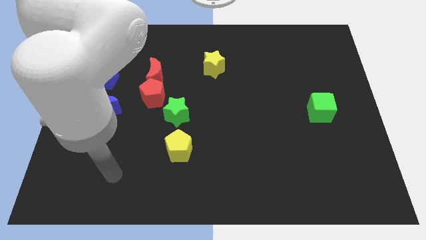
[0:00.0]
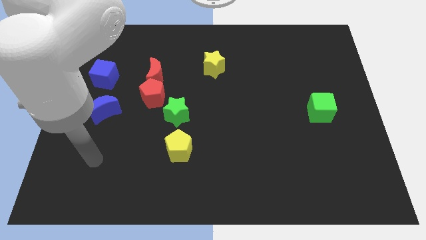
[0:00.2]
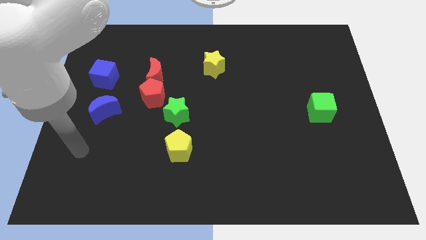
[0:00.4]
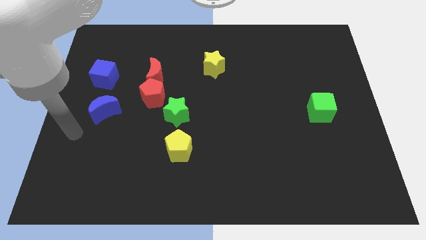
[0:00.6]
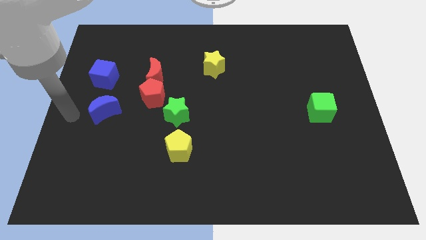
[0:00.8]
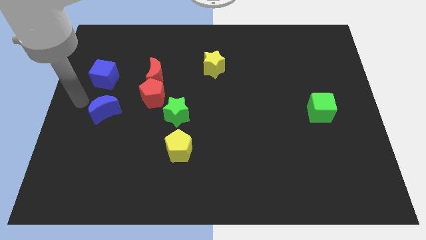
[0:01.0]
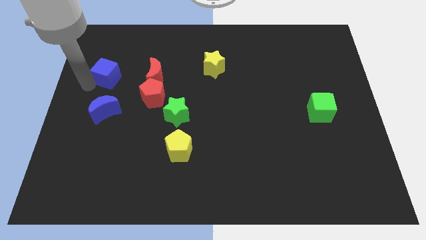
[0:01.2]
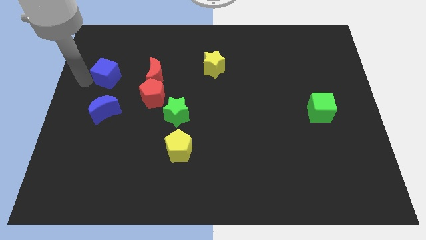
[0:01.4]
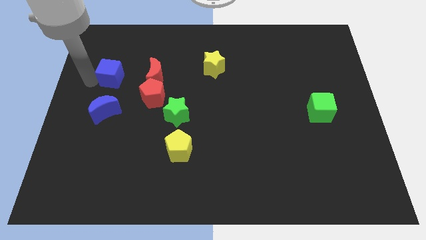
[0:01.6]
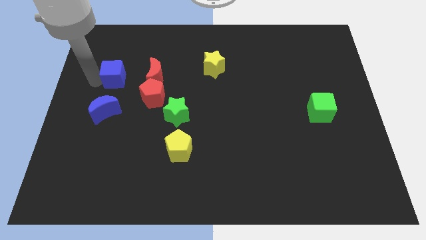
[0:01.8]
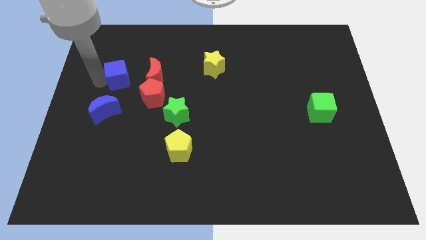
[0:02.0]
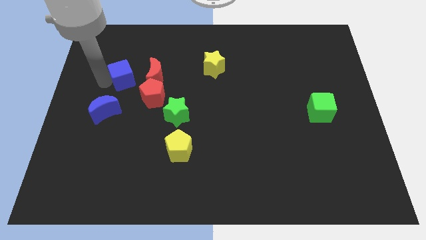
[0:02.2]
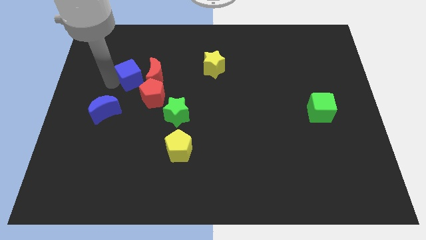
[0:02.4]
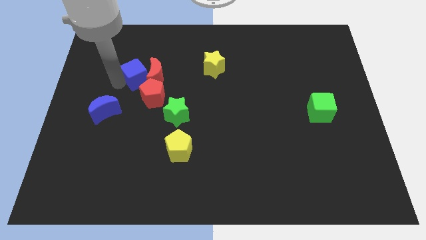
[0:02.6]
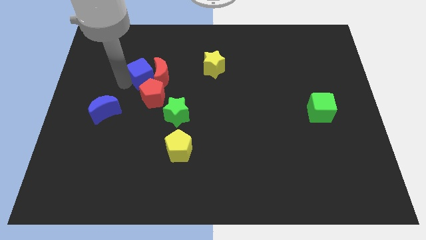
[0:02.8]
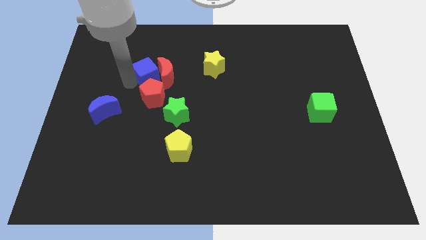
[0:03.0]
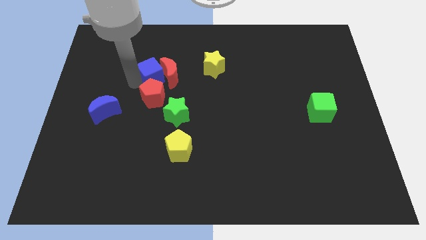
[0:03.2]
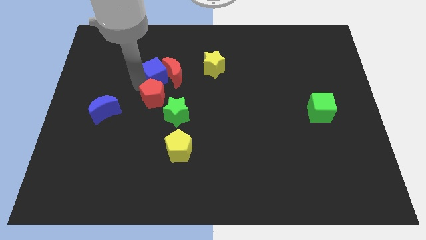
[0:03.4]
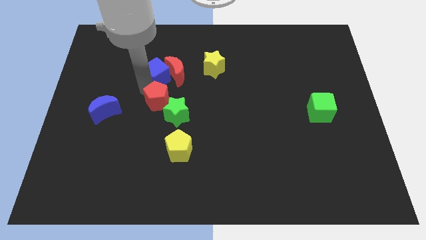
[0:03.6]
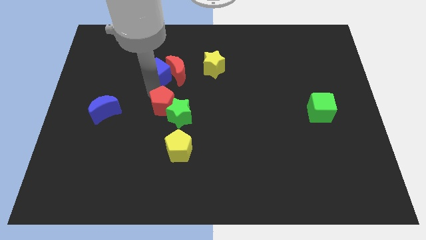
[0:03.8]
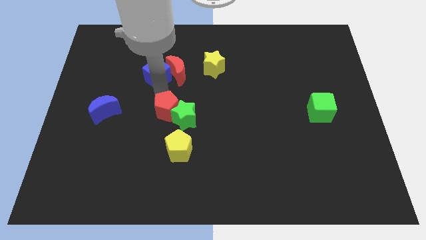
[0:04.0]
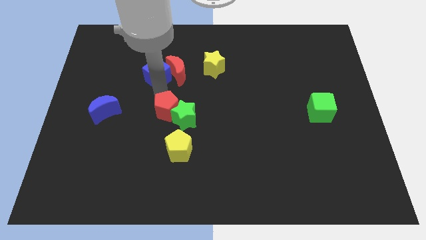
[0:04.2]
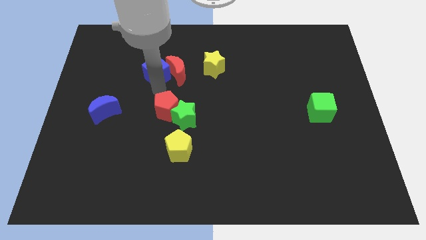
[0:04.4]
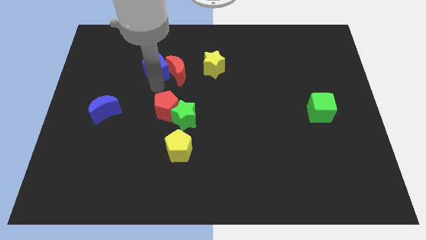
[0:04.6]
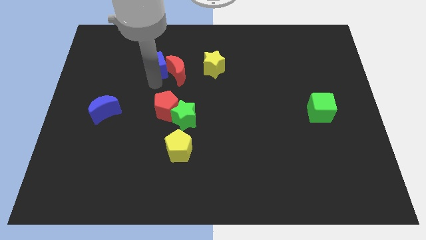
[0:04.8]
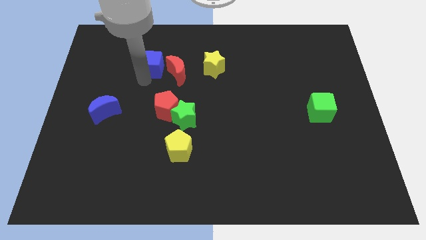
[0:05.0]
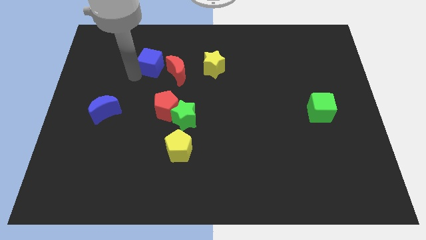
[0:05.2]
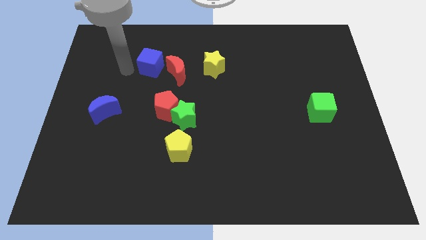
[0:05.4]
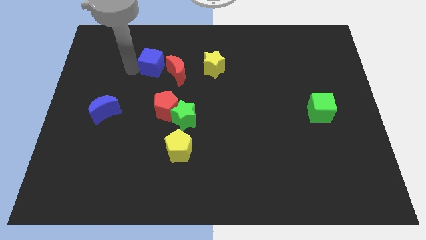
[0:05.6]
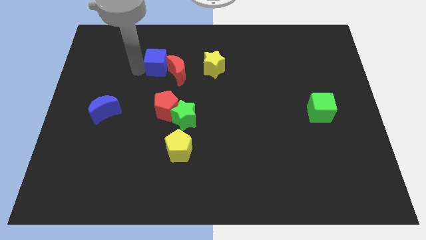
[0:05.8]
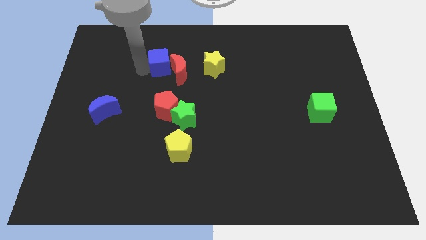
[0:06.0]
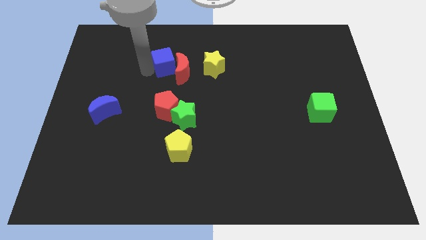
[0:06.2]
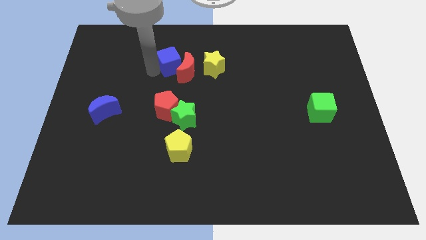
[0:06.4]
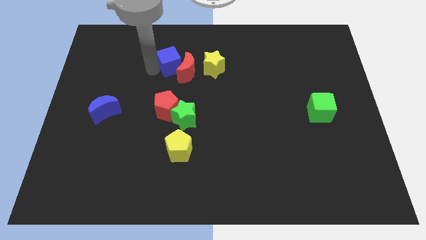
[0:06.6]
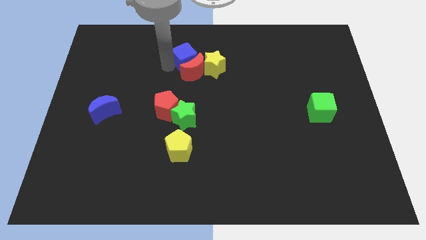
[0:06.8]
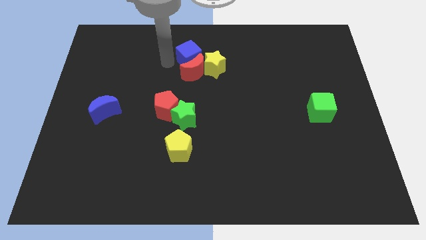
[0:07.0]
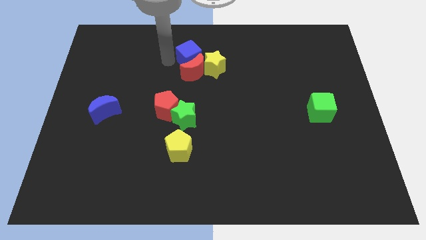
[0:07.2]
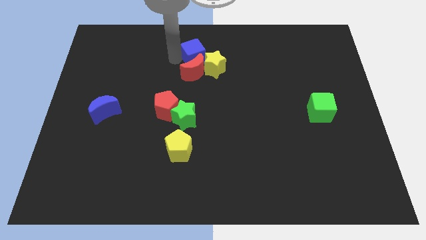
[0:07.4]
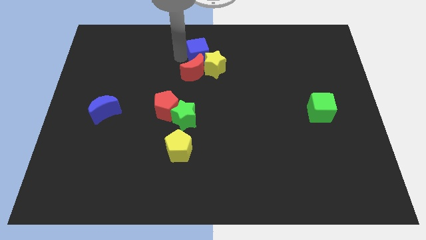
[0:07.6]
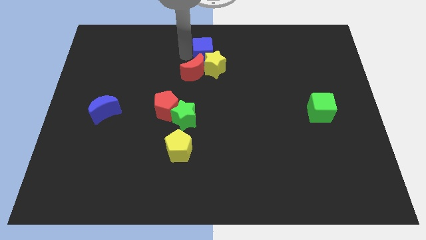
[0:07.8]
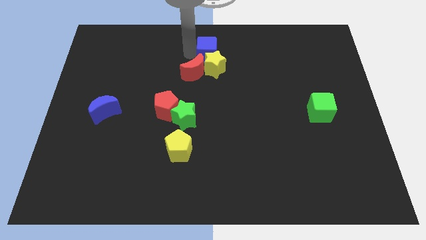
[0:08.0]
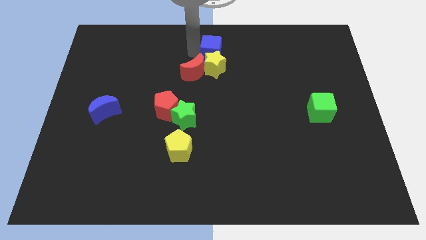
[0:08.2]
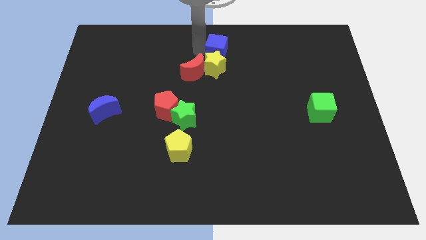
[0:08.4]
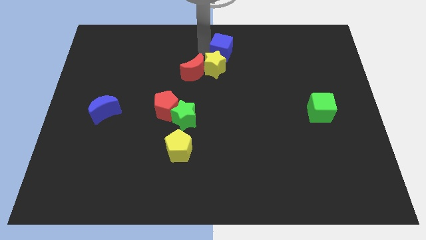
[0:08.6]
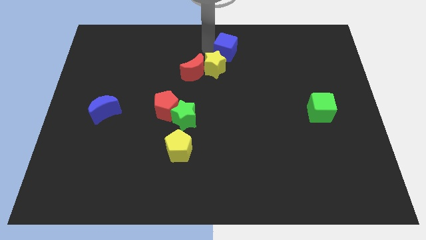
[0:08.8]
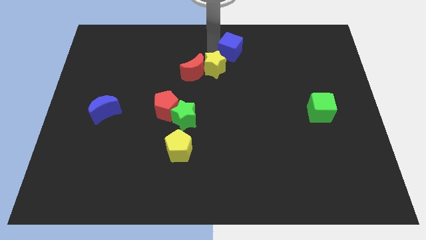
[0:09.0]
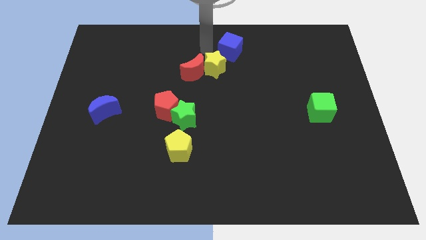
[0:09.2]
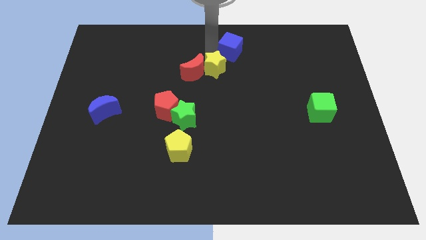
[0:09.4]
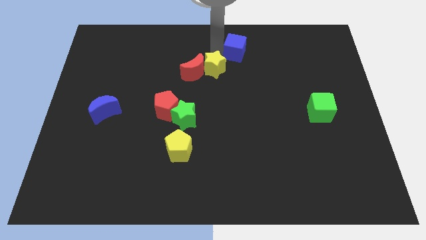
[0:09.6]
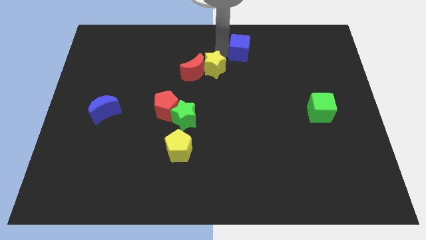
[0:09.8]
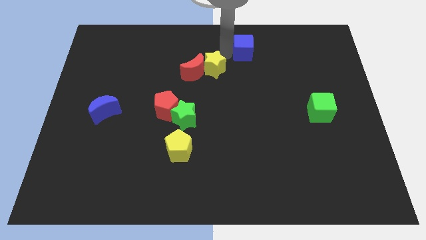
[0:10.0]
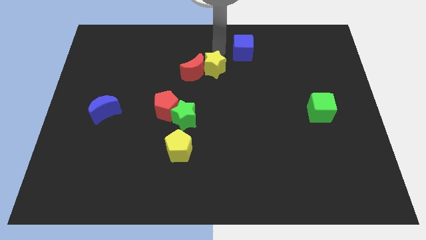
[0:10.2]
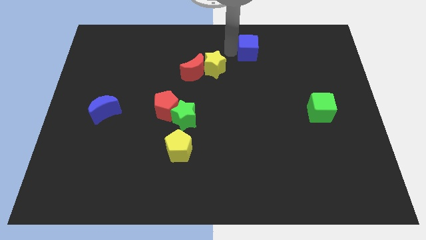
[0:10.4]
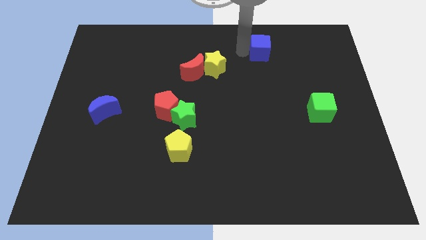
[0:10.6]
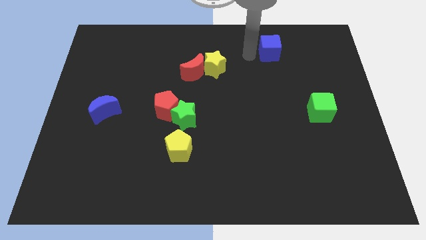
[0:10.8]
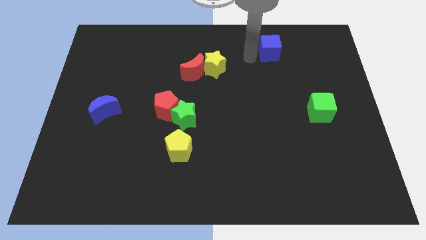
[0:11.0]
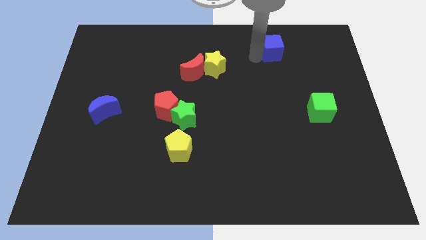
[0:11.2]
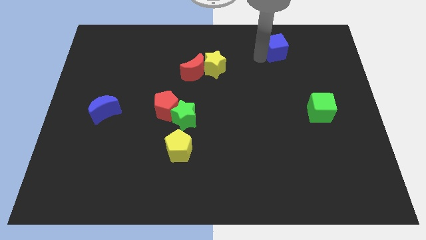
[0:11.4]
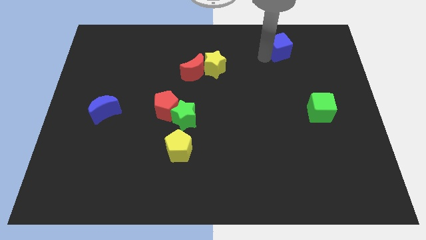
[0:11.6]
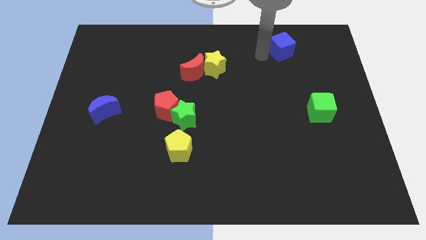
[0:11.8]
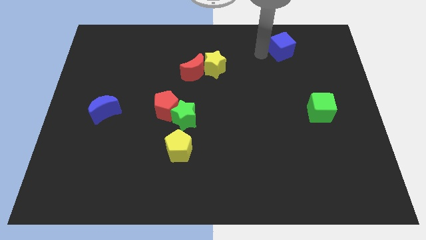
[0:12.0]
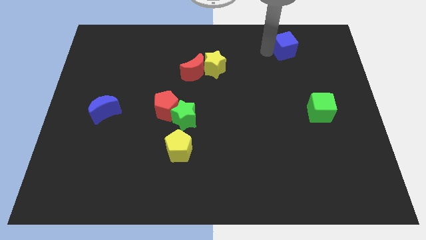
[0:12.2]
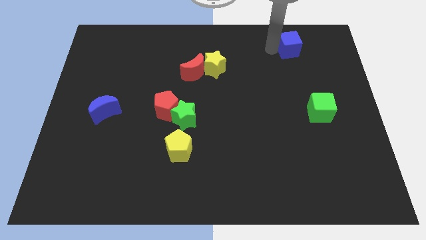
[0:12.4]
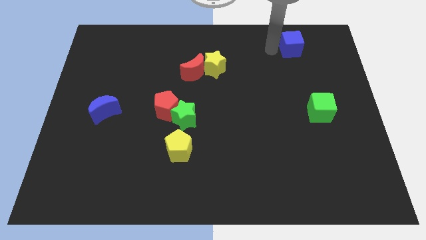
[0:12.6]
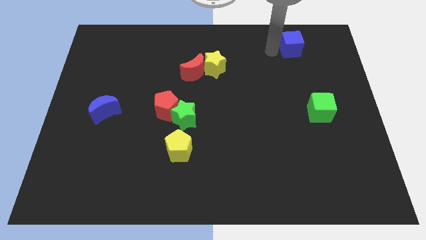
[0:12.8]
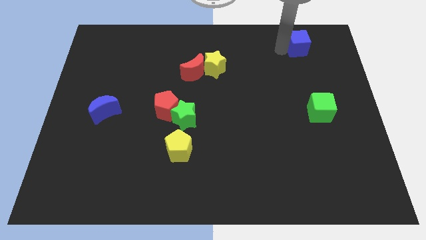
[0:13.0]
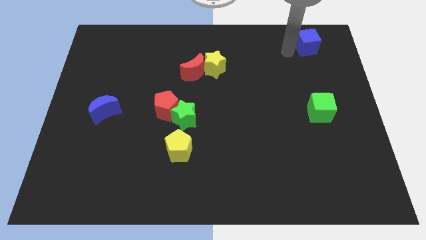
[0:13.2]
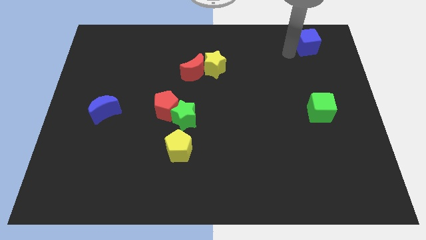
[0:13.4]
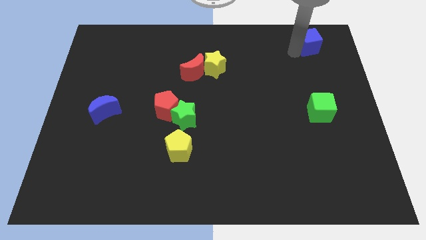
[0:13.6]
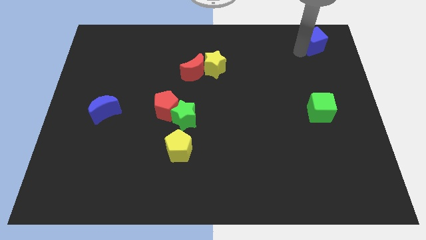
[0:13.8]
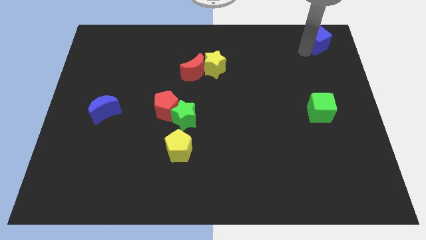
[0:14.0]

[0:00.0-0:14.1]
put the blue cube to the top right corner

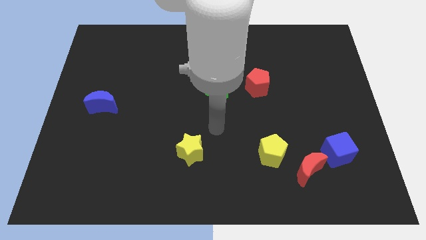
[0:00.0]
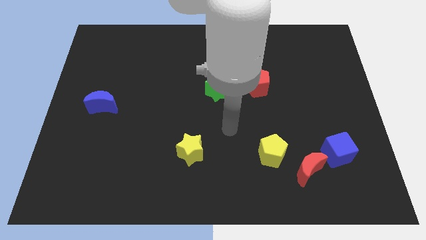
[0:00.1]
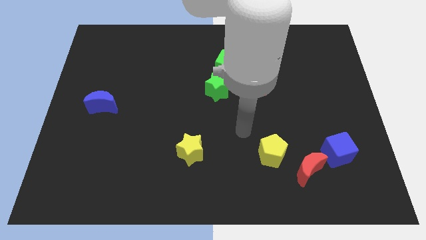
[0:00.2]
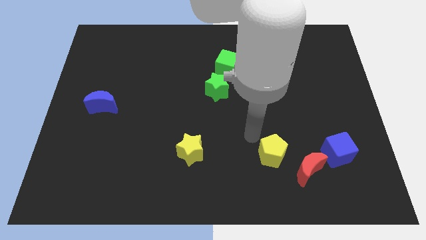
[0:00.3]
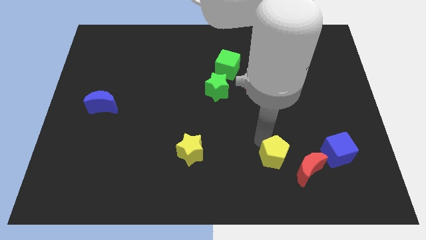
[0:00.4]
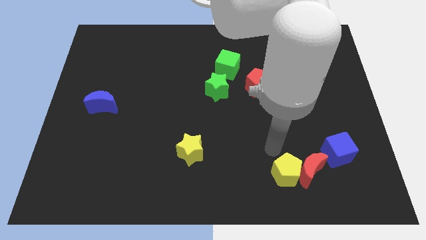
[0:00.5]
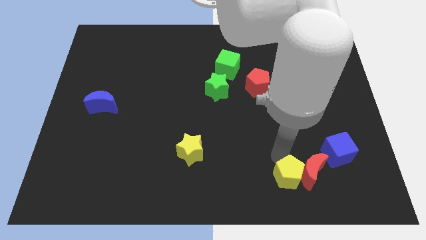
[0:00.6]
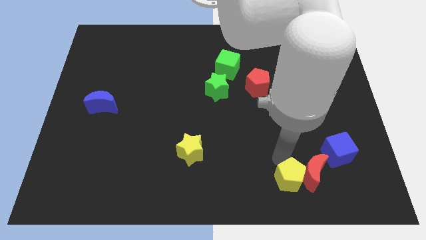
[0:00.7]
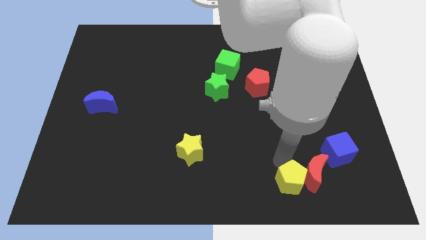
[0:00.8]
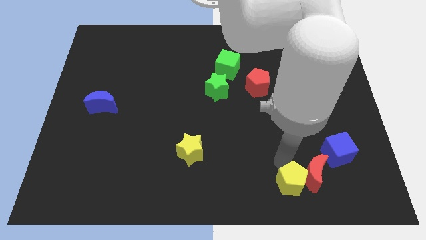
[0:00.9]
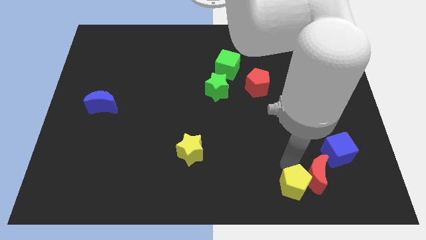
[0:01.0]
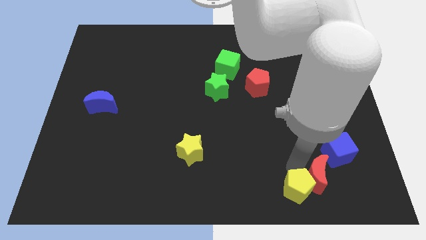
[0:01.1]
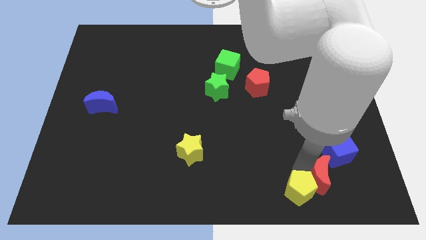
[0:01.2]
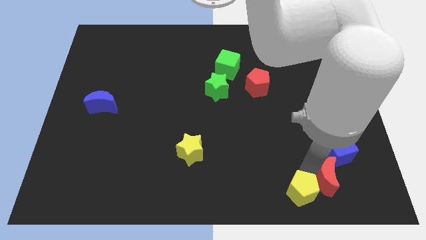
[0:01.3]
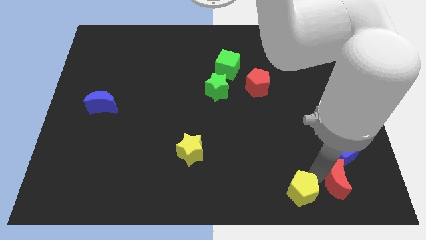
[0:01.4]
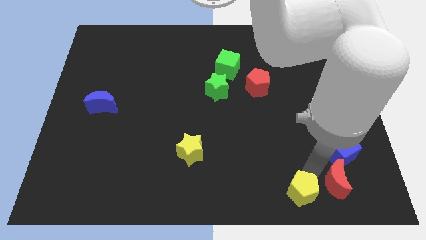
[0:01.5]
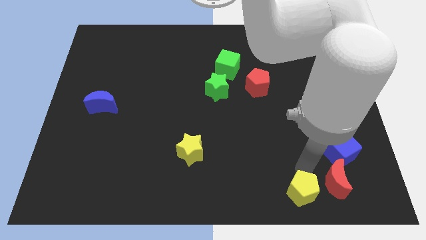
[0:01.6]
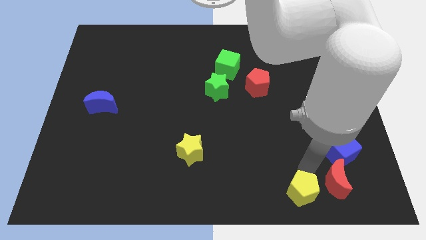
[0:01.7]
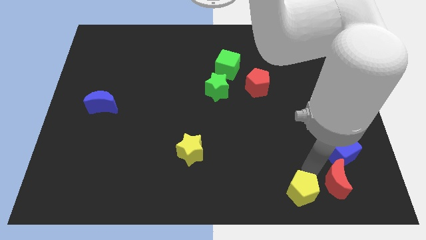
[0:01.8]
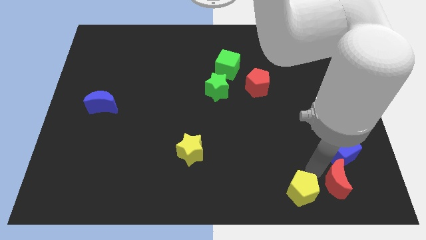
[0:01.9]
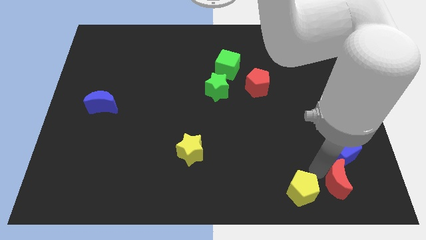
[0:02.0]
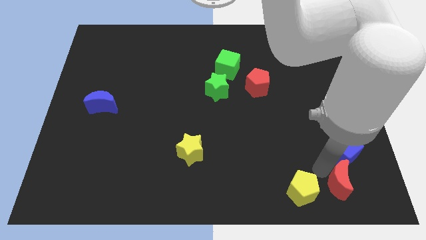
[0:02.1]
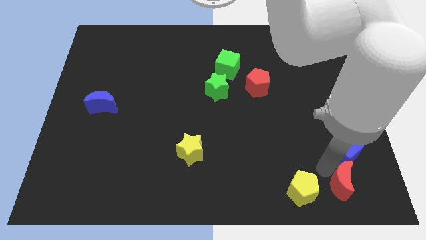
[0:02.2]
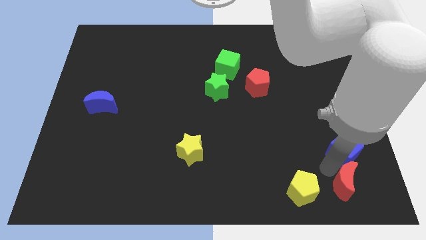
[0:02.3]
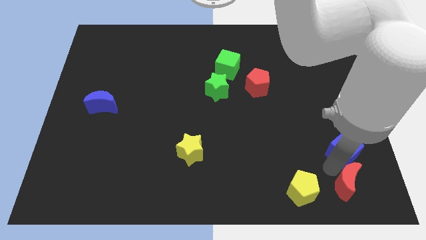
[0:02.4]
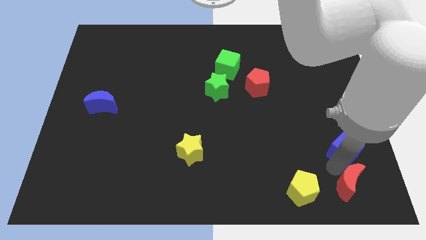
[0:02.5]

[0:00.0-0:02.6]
slide the red moon to the lower right corner
